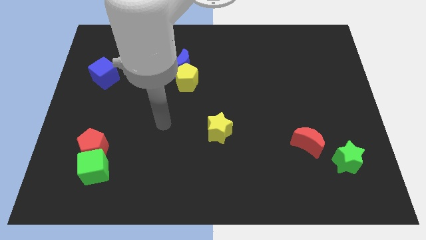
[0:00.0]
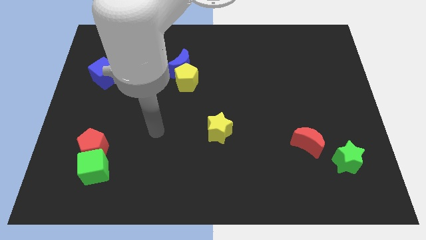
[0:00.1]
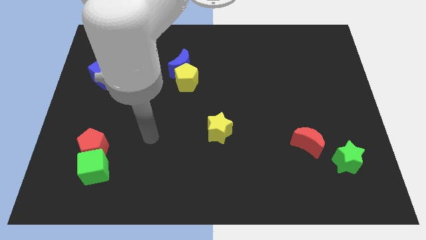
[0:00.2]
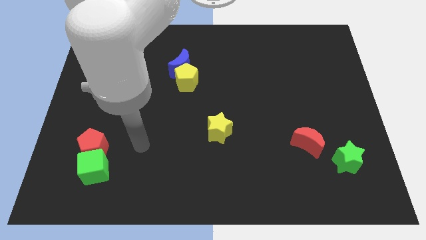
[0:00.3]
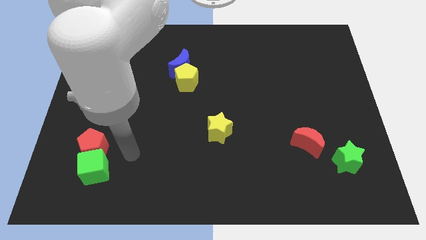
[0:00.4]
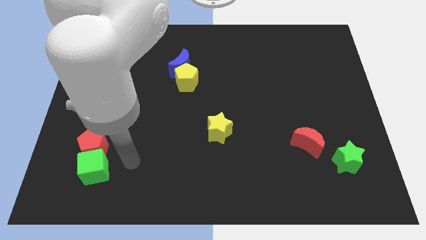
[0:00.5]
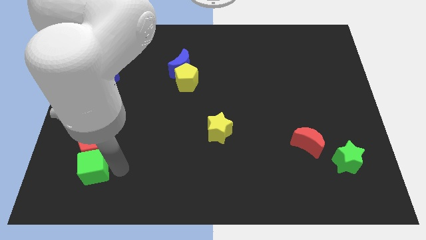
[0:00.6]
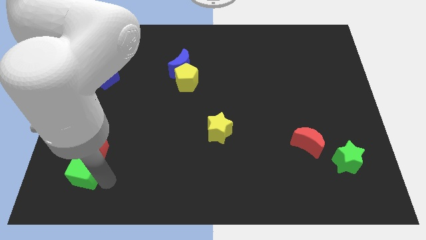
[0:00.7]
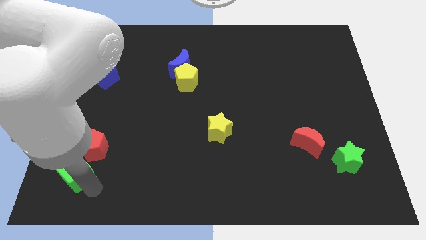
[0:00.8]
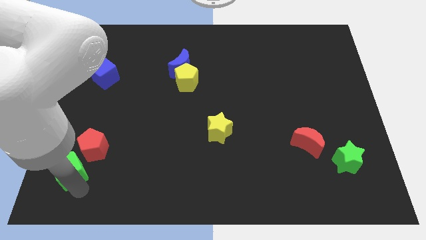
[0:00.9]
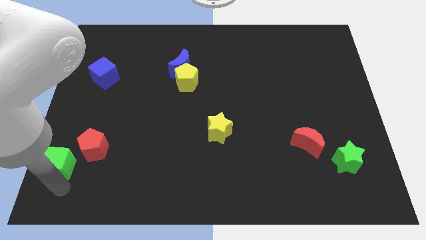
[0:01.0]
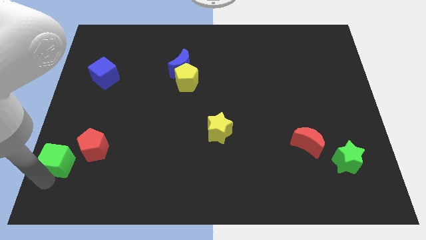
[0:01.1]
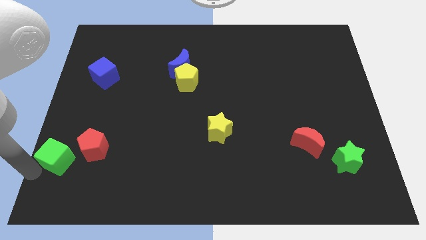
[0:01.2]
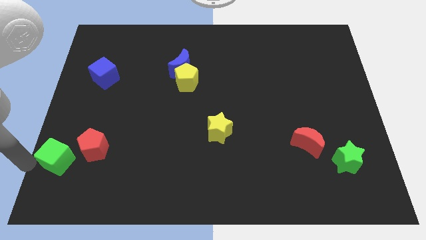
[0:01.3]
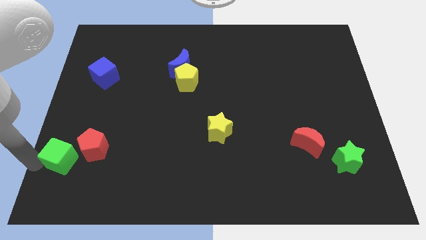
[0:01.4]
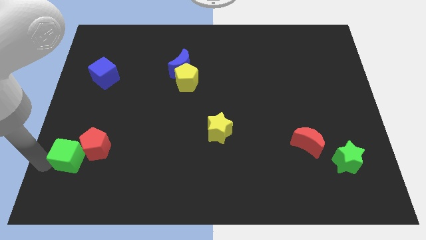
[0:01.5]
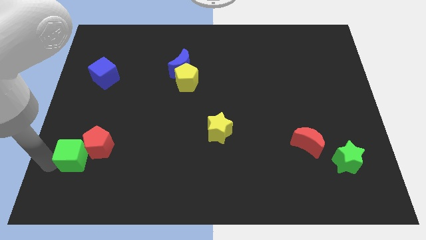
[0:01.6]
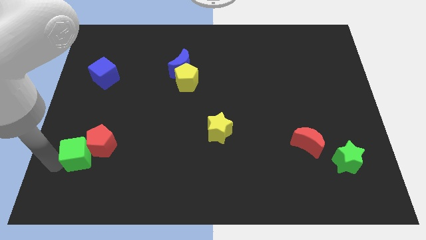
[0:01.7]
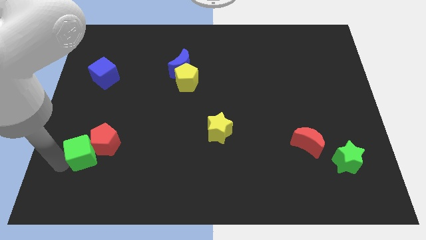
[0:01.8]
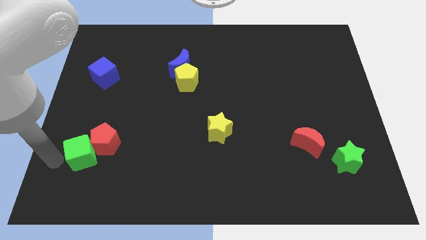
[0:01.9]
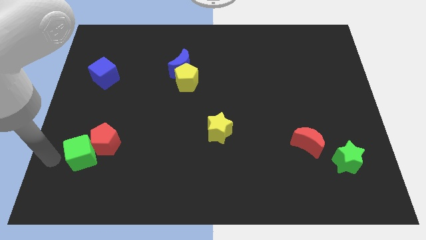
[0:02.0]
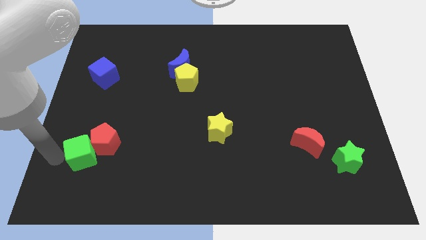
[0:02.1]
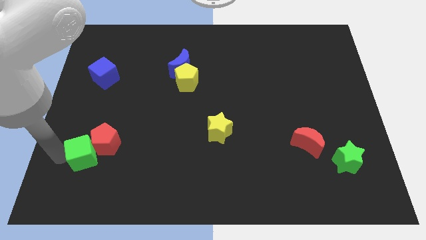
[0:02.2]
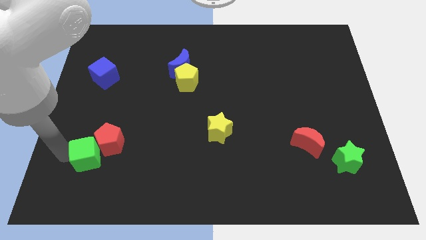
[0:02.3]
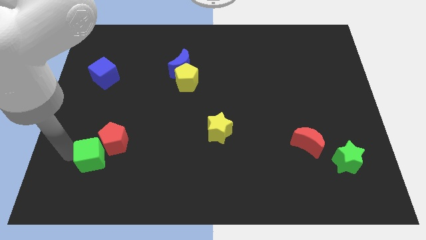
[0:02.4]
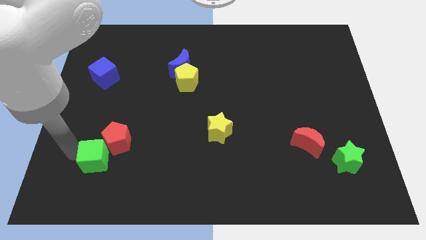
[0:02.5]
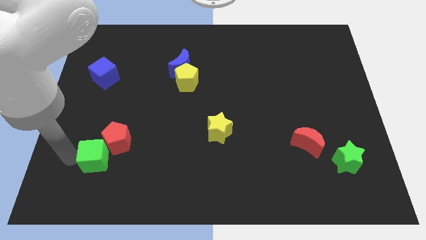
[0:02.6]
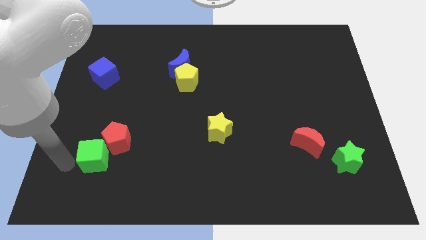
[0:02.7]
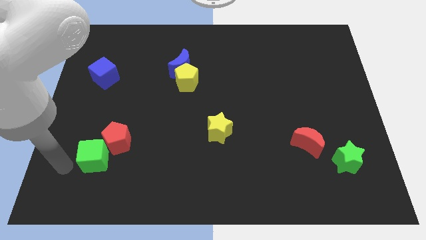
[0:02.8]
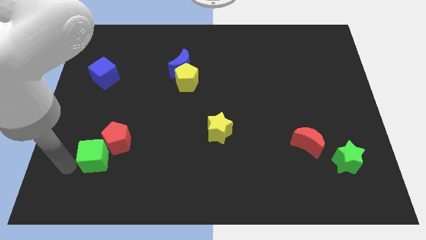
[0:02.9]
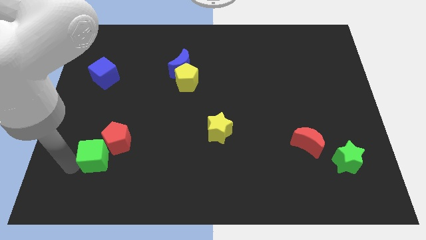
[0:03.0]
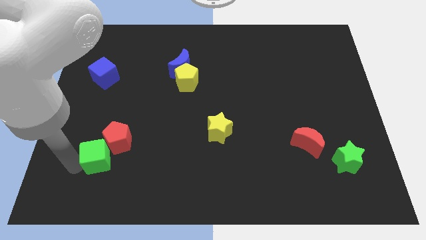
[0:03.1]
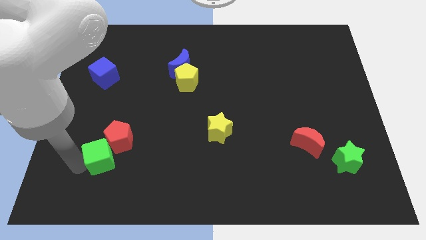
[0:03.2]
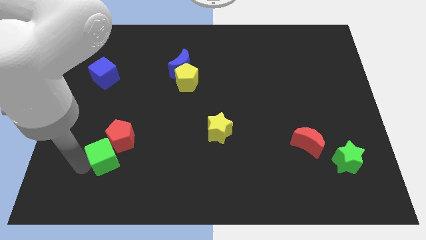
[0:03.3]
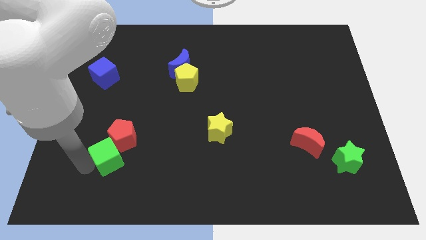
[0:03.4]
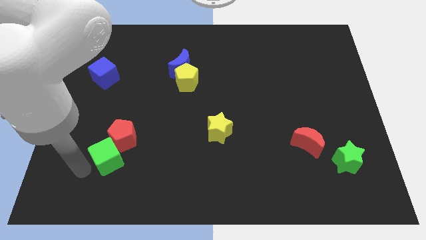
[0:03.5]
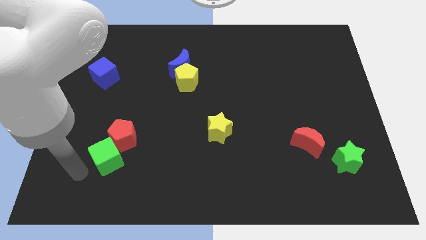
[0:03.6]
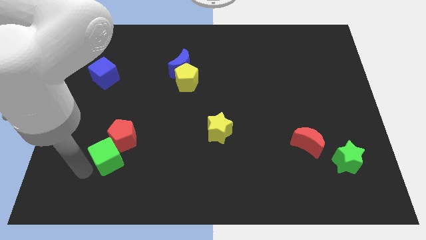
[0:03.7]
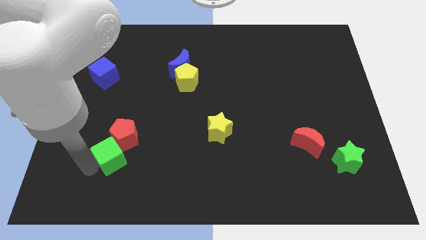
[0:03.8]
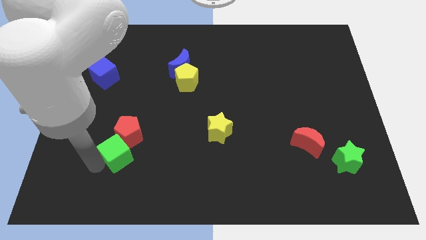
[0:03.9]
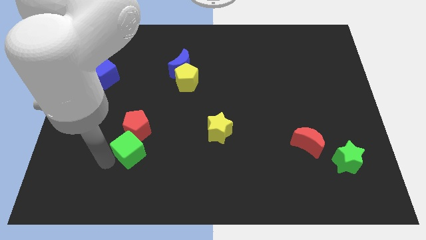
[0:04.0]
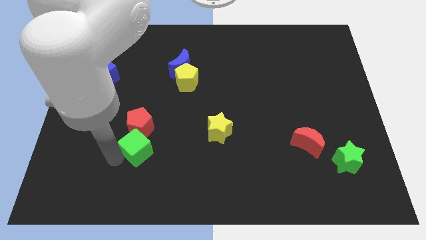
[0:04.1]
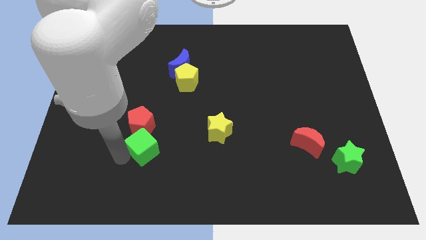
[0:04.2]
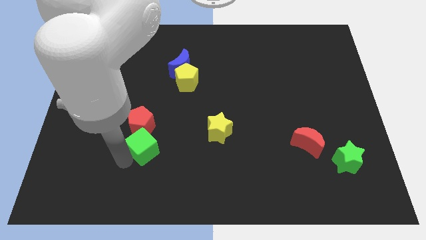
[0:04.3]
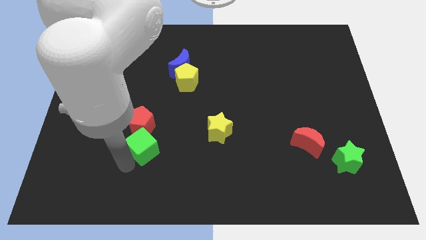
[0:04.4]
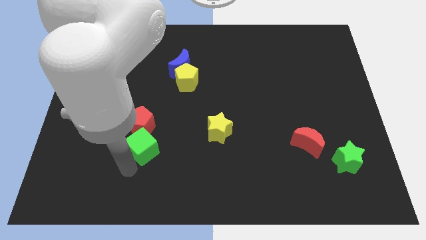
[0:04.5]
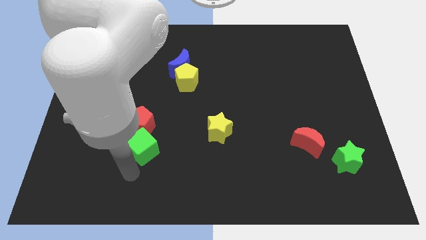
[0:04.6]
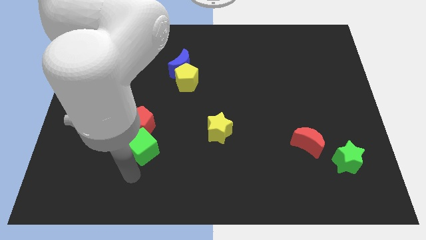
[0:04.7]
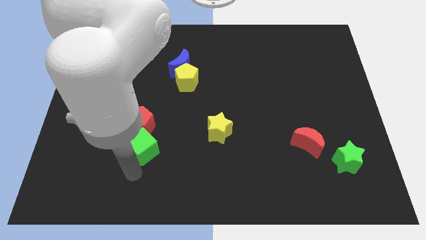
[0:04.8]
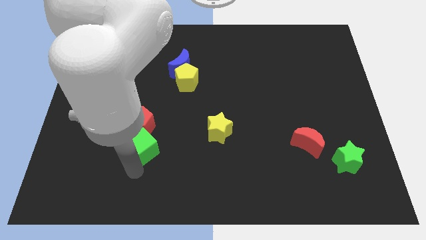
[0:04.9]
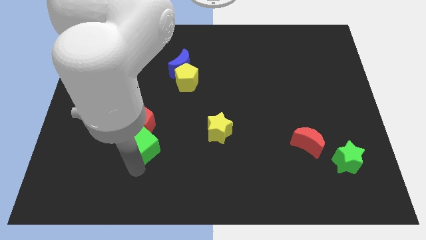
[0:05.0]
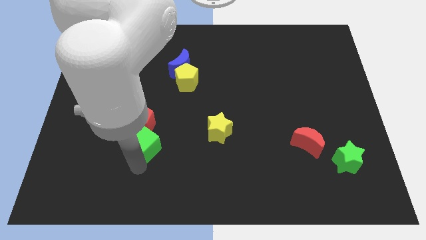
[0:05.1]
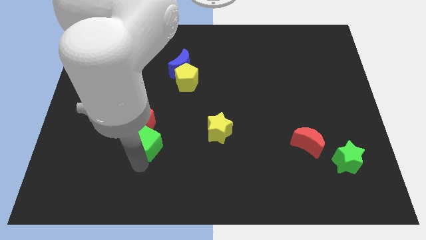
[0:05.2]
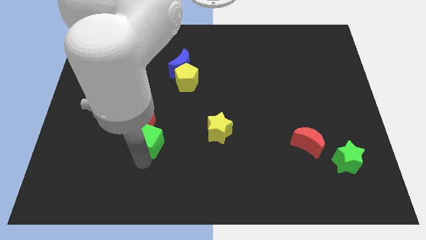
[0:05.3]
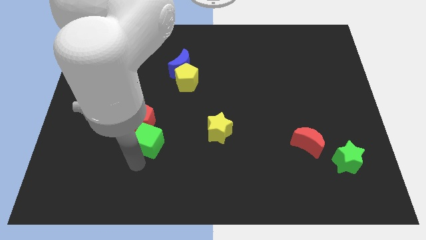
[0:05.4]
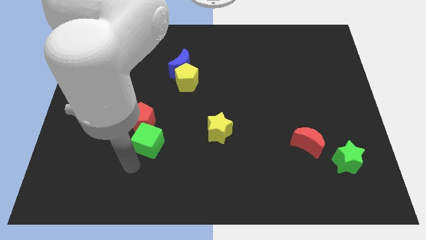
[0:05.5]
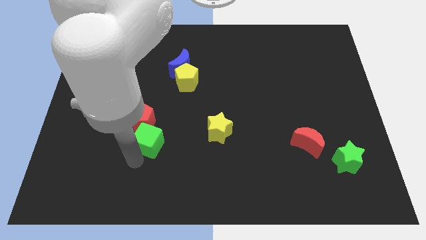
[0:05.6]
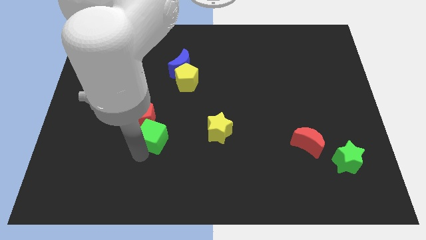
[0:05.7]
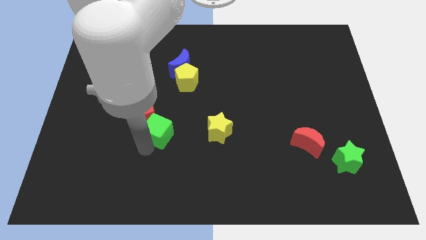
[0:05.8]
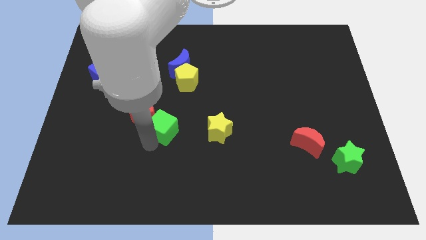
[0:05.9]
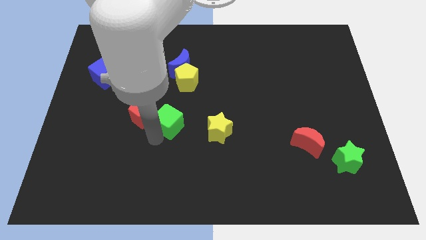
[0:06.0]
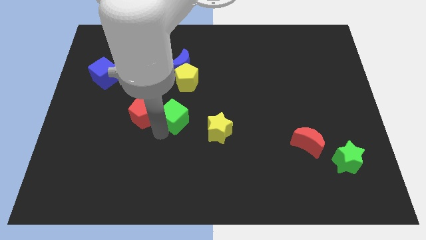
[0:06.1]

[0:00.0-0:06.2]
push the green cube diagonally up and right

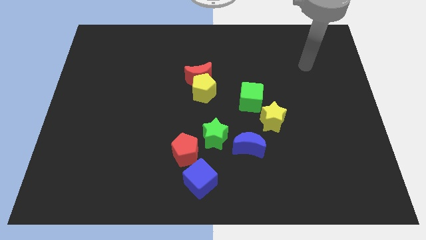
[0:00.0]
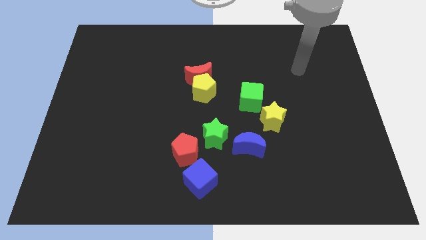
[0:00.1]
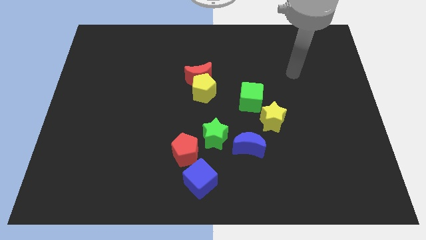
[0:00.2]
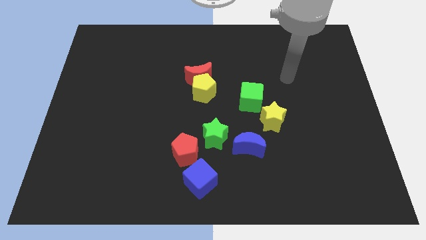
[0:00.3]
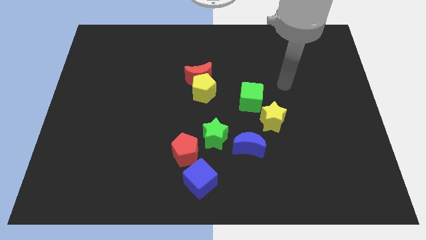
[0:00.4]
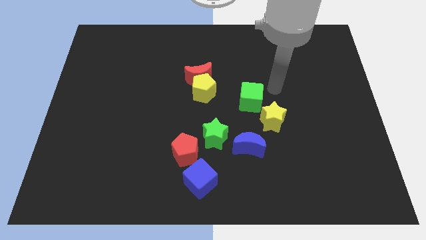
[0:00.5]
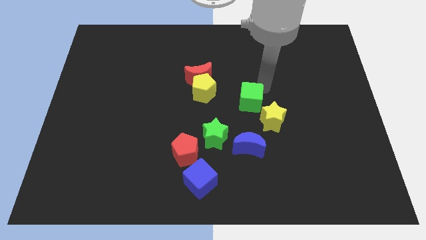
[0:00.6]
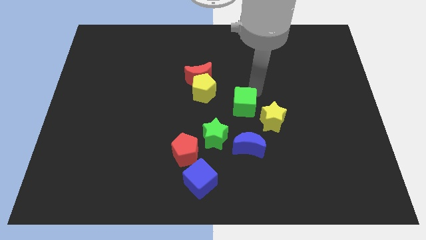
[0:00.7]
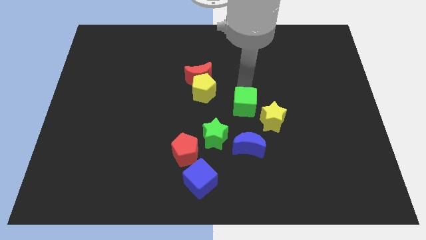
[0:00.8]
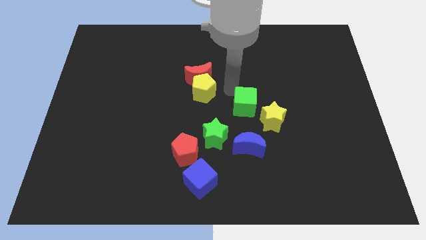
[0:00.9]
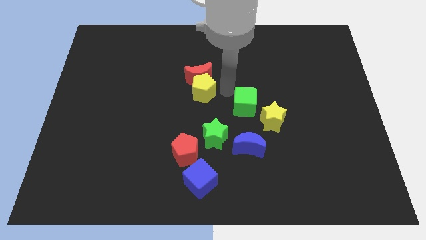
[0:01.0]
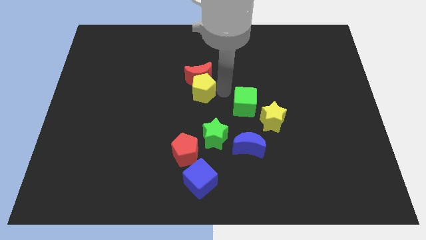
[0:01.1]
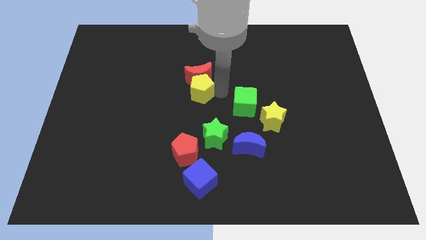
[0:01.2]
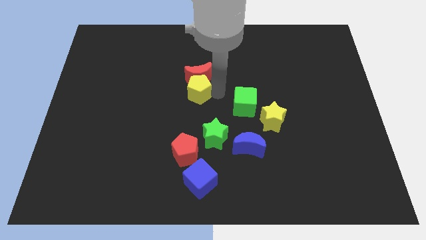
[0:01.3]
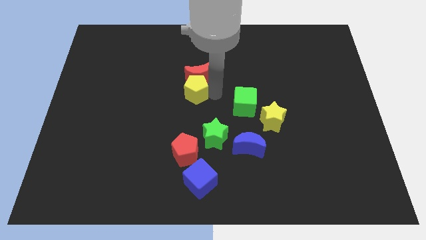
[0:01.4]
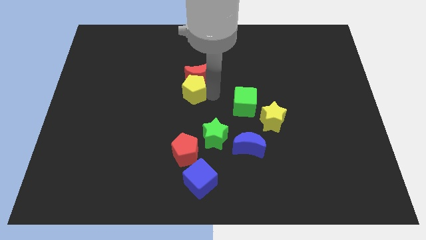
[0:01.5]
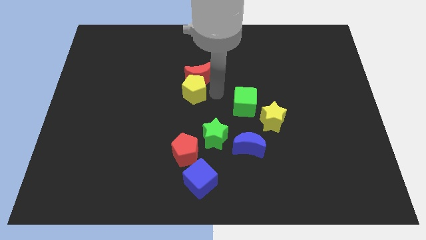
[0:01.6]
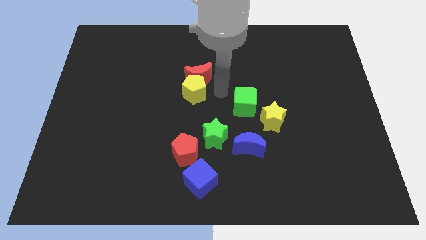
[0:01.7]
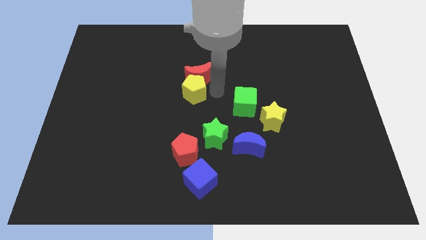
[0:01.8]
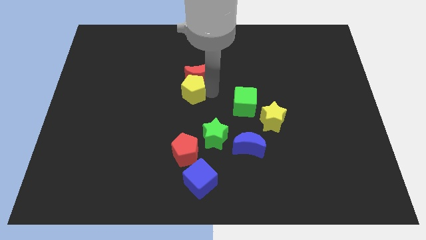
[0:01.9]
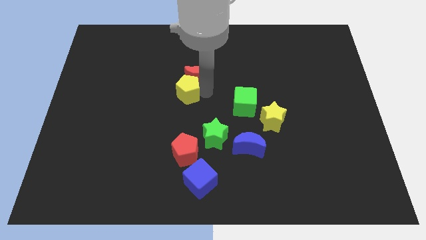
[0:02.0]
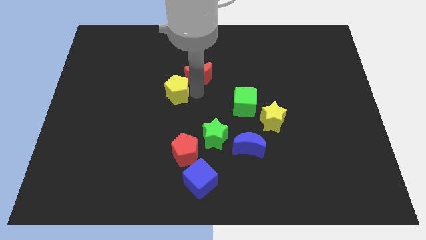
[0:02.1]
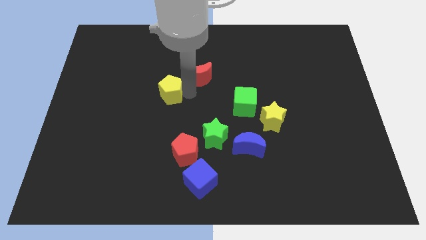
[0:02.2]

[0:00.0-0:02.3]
push the yellow pentagon left a little

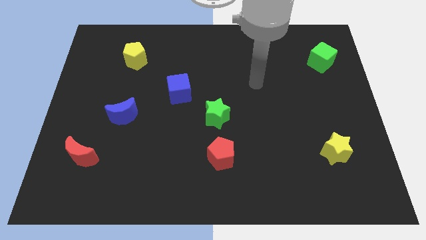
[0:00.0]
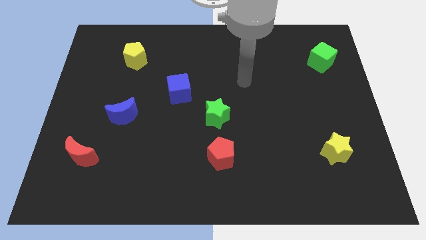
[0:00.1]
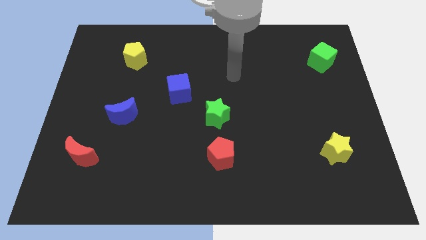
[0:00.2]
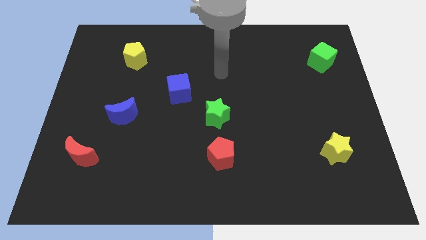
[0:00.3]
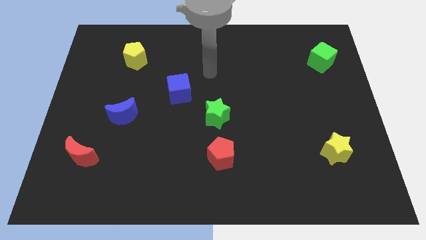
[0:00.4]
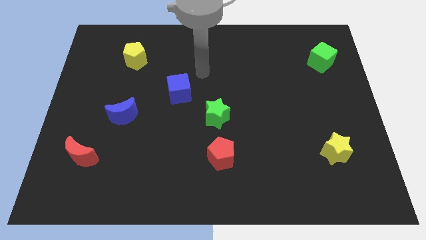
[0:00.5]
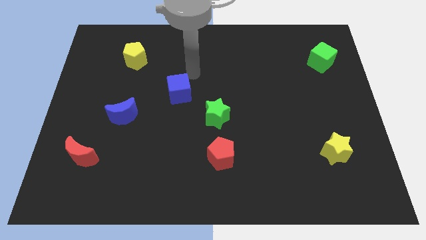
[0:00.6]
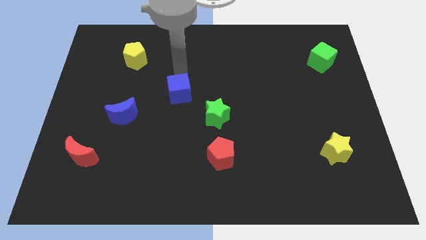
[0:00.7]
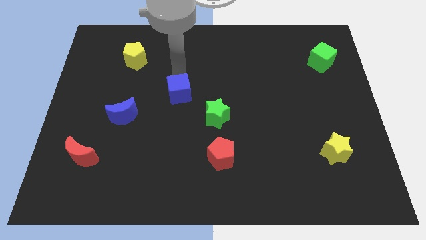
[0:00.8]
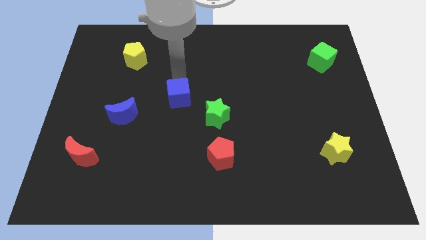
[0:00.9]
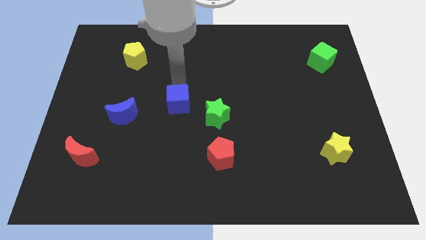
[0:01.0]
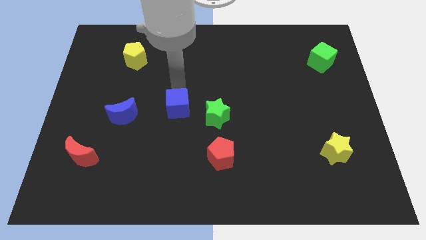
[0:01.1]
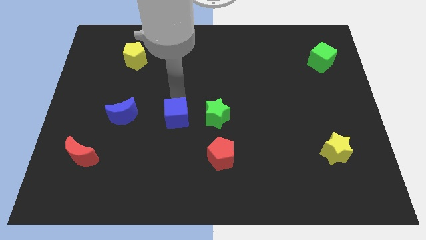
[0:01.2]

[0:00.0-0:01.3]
slide the blue cube a bit down
